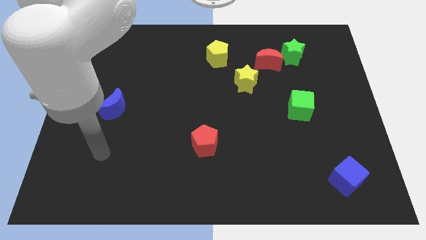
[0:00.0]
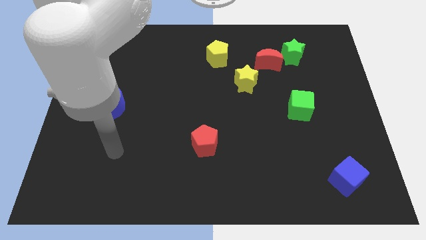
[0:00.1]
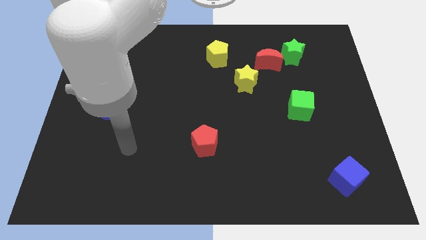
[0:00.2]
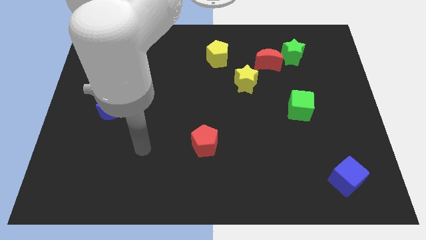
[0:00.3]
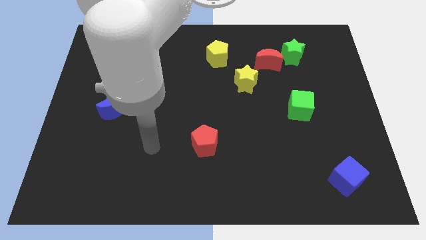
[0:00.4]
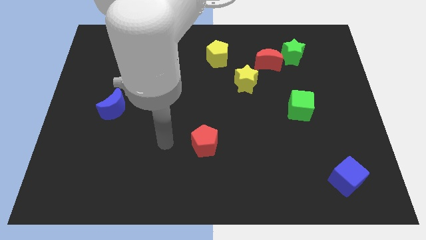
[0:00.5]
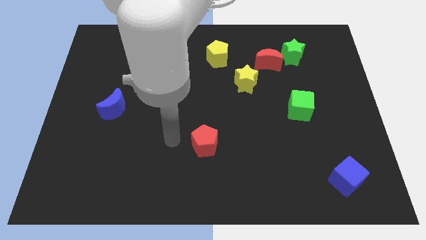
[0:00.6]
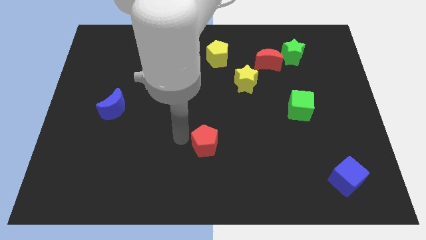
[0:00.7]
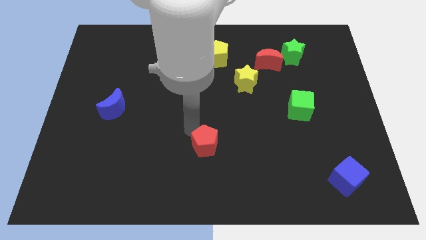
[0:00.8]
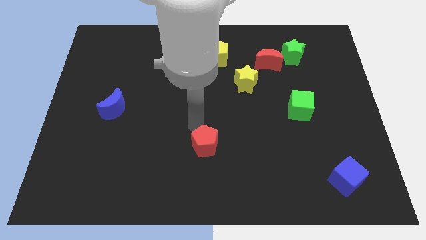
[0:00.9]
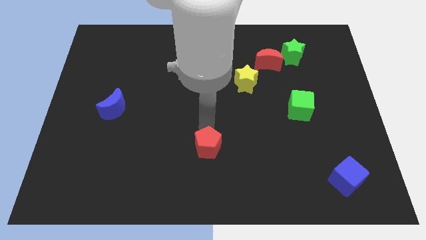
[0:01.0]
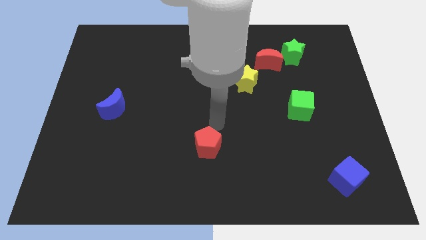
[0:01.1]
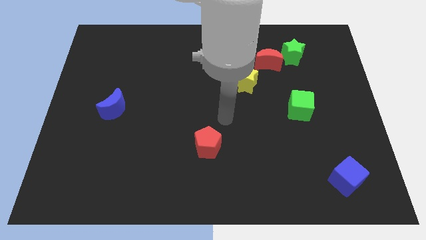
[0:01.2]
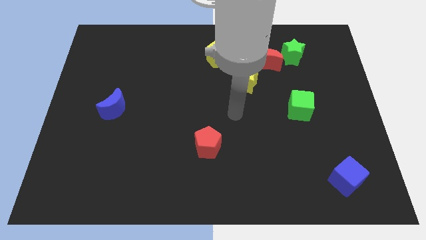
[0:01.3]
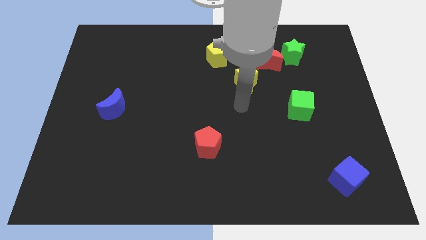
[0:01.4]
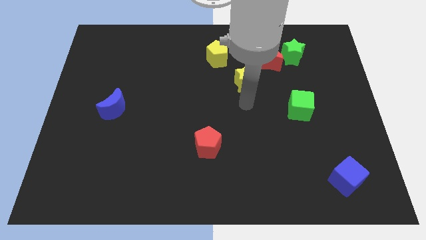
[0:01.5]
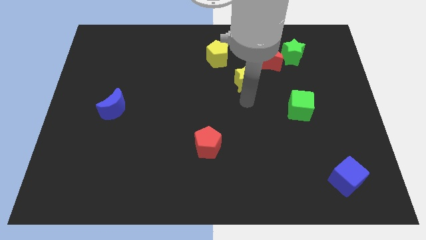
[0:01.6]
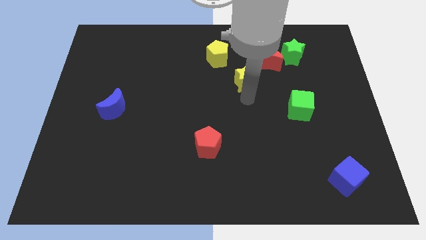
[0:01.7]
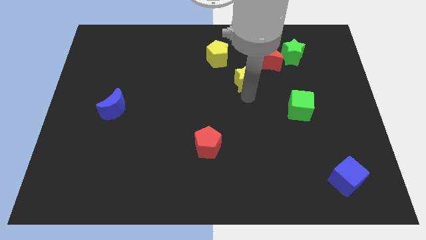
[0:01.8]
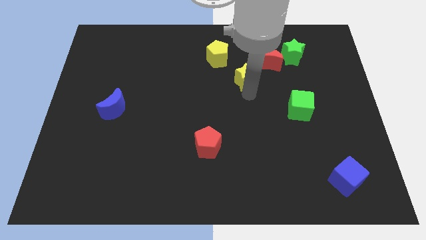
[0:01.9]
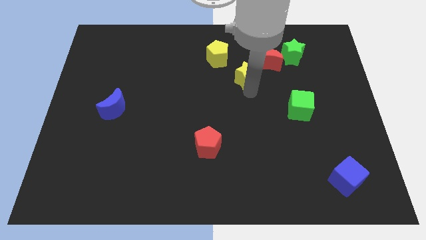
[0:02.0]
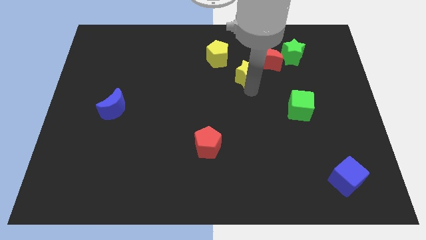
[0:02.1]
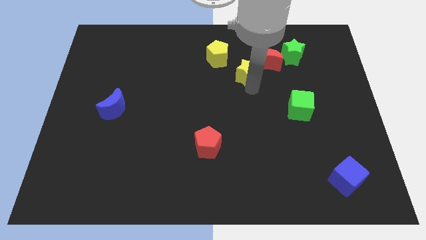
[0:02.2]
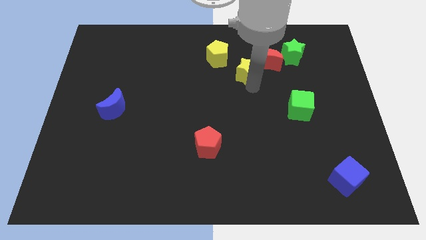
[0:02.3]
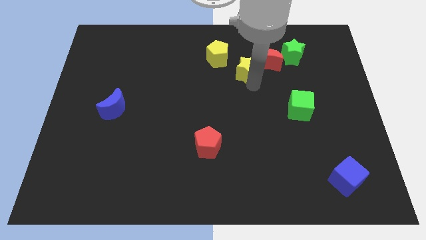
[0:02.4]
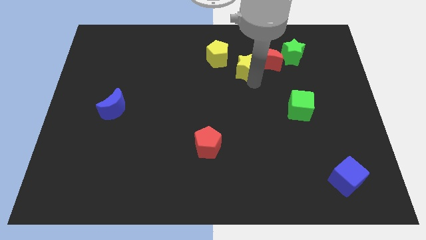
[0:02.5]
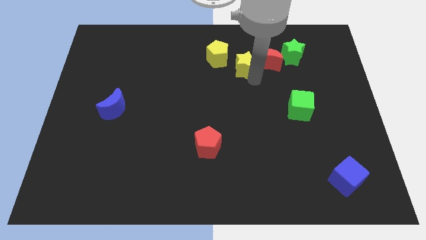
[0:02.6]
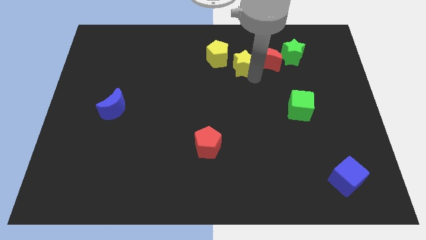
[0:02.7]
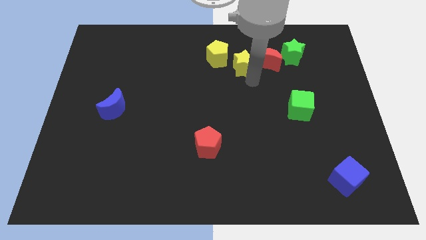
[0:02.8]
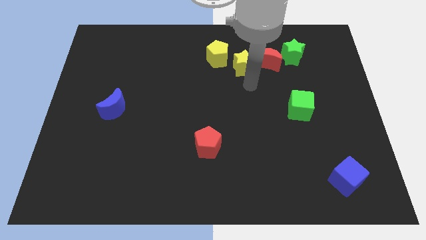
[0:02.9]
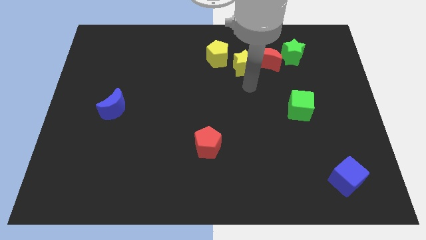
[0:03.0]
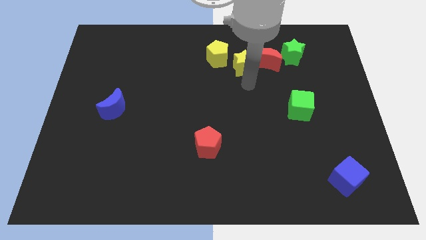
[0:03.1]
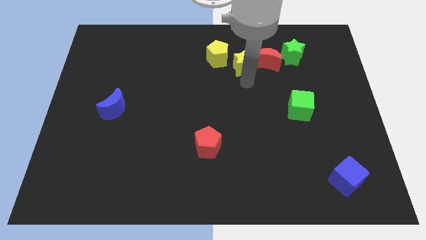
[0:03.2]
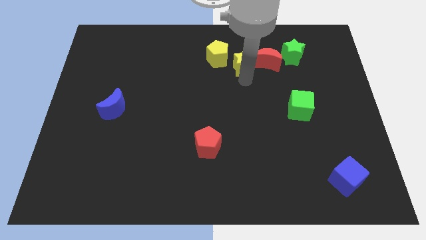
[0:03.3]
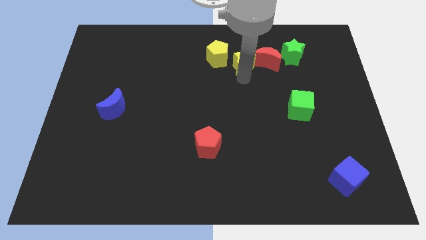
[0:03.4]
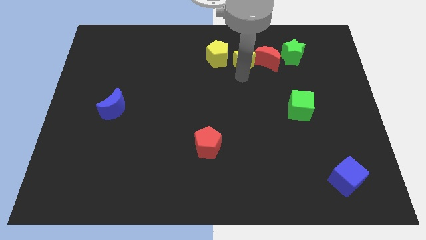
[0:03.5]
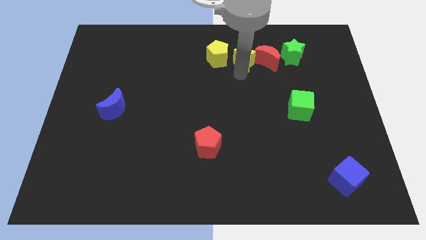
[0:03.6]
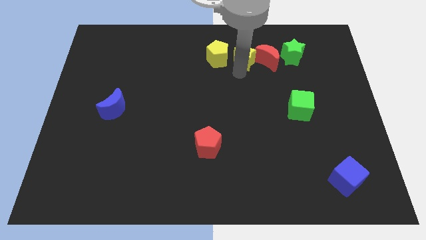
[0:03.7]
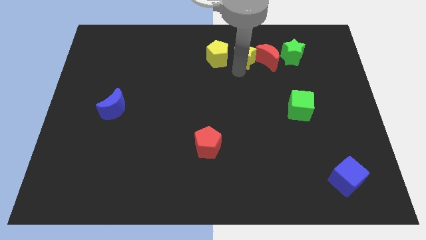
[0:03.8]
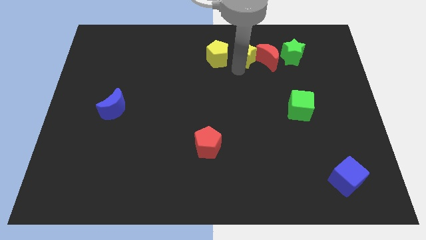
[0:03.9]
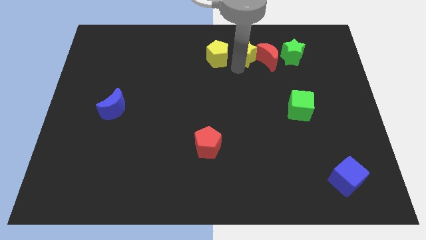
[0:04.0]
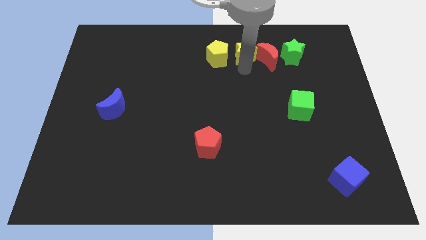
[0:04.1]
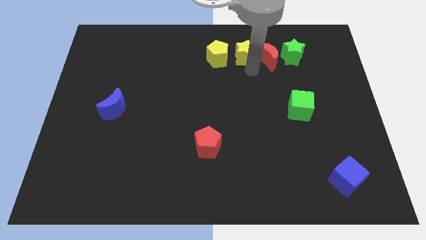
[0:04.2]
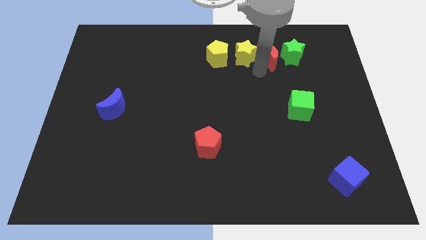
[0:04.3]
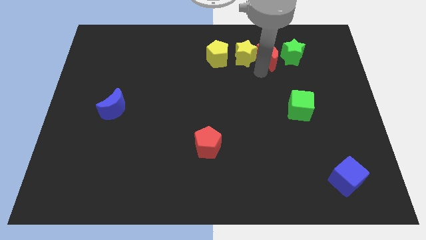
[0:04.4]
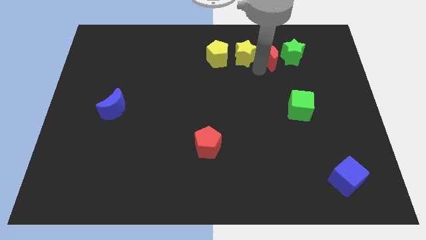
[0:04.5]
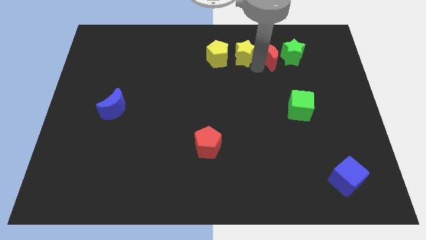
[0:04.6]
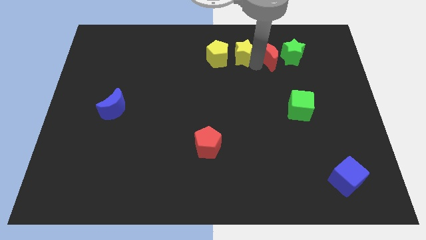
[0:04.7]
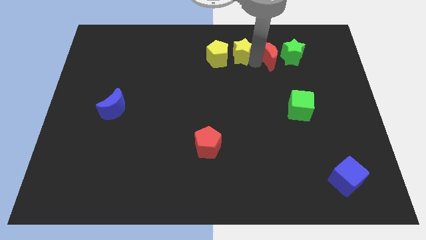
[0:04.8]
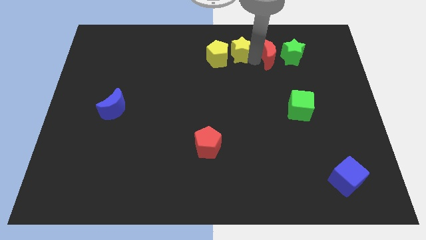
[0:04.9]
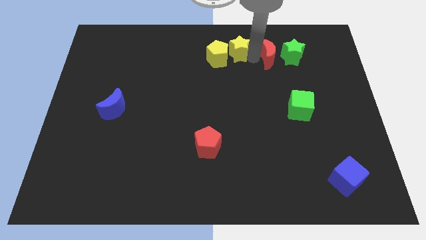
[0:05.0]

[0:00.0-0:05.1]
move the yellow star to the top side
